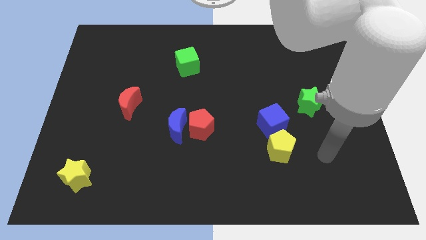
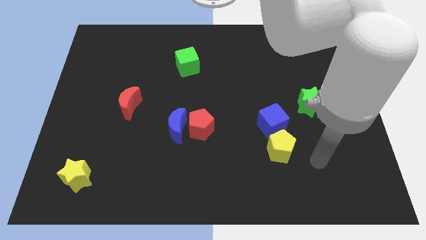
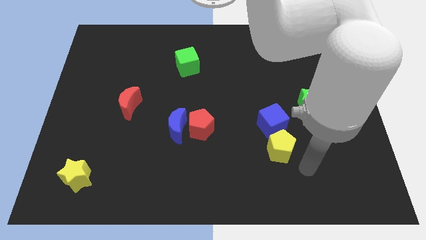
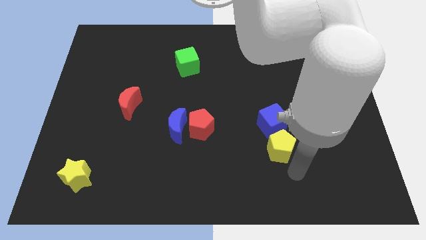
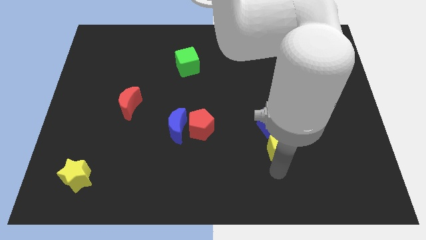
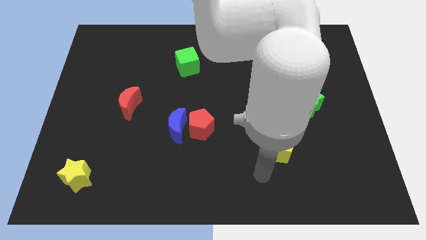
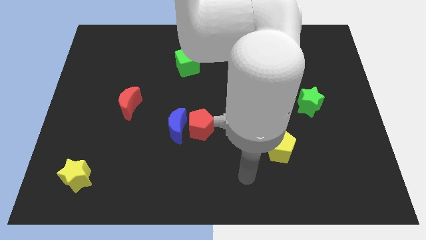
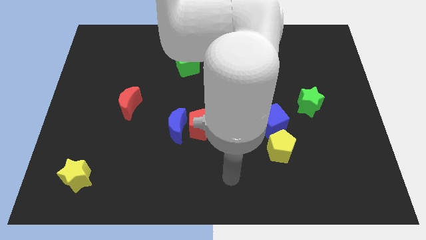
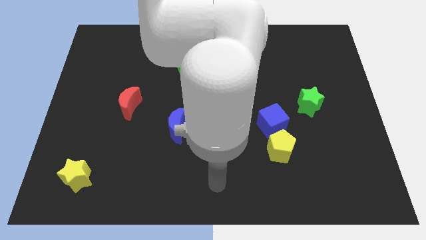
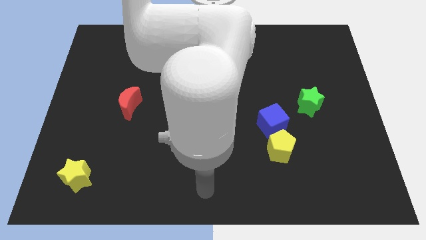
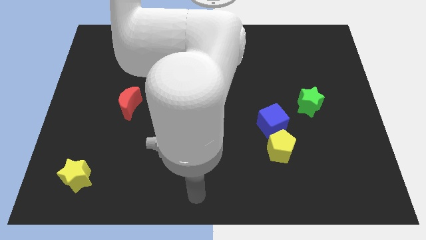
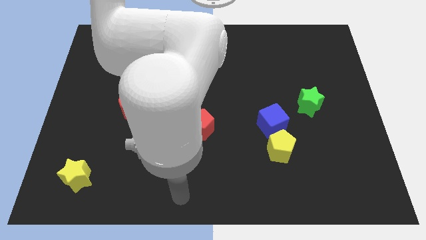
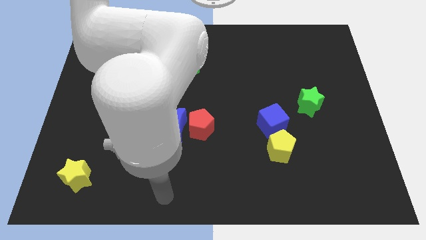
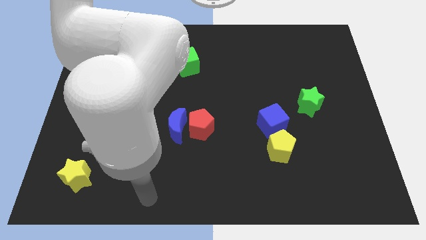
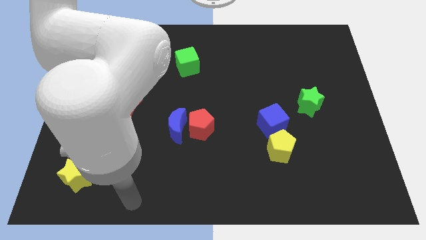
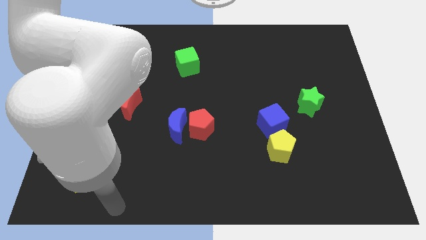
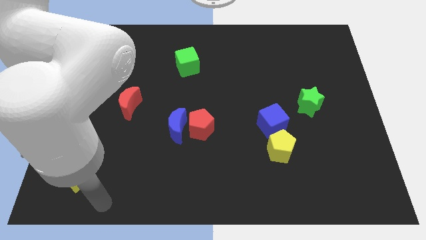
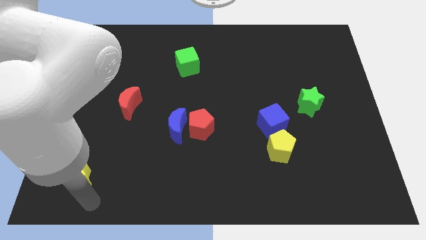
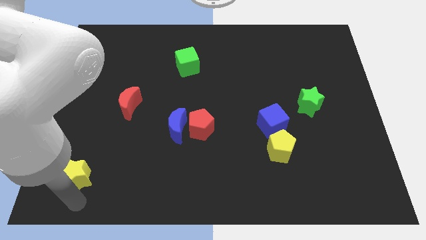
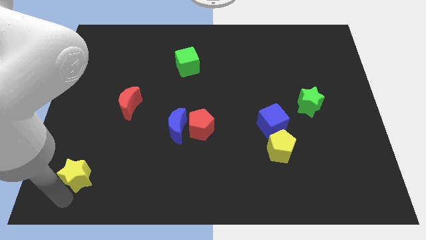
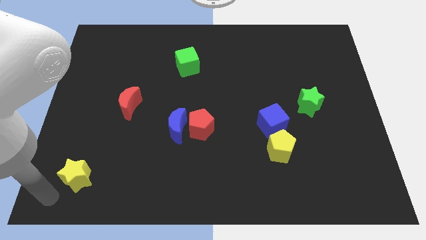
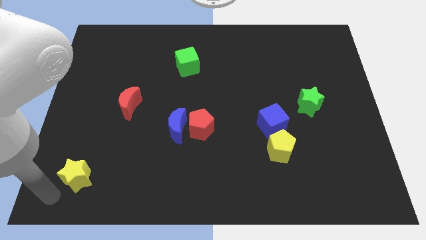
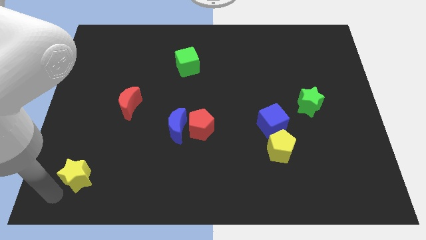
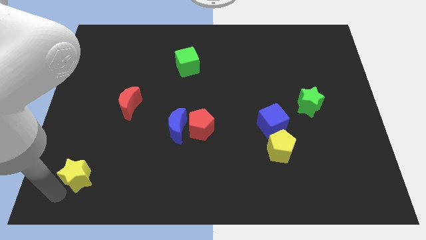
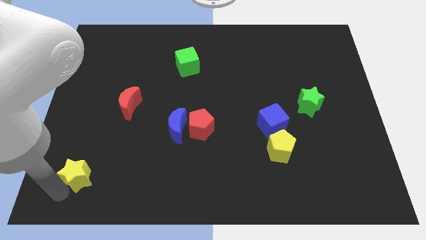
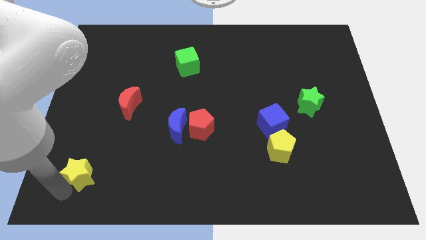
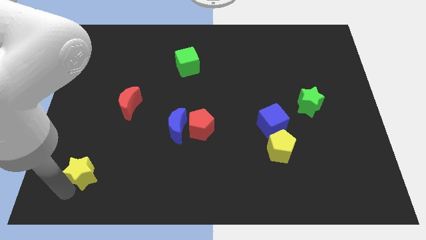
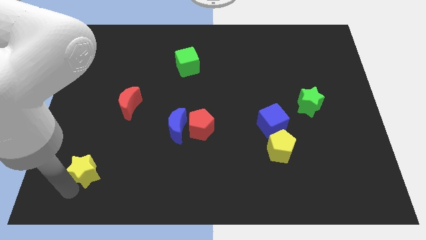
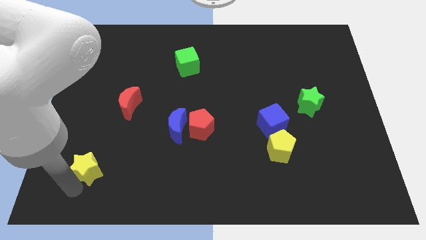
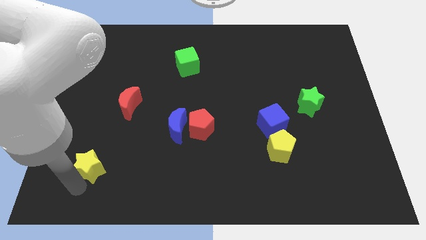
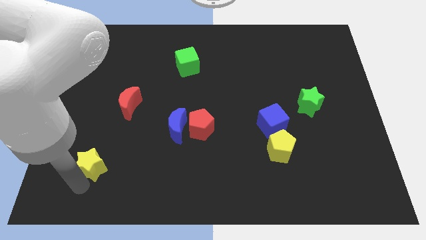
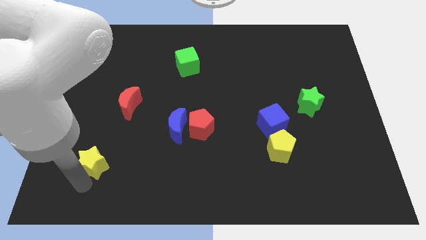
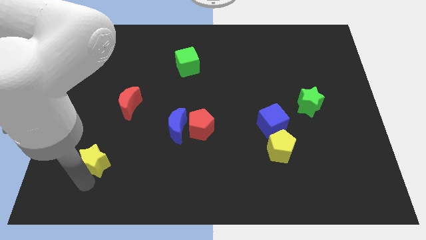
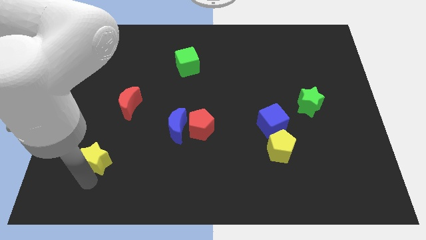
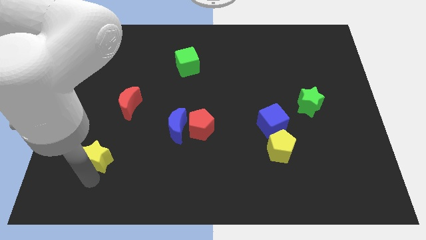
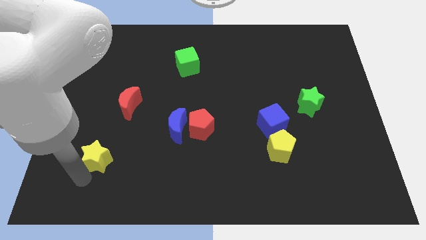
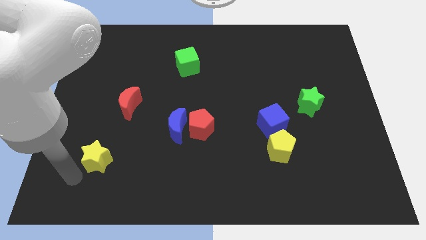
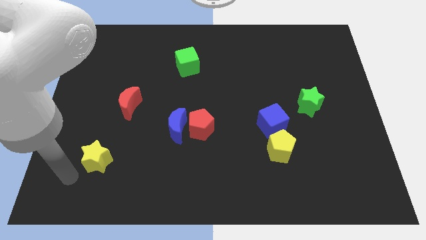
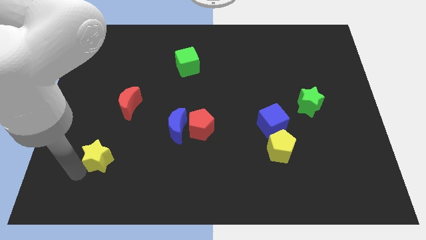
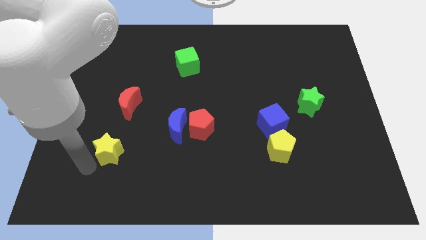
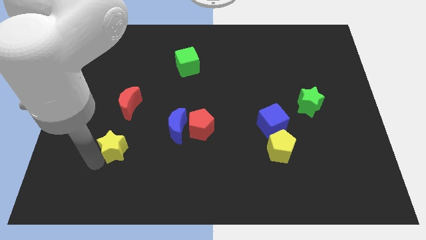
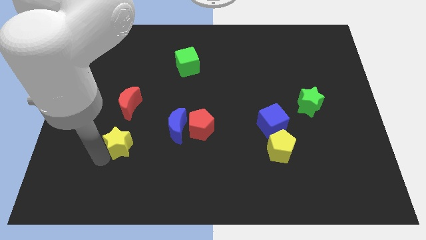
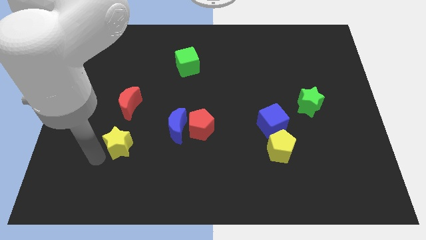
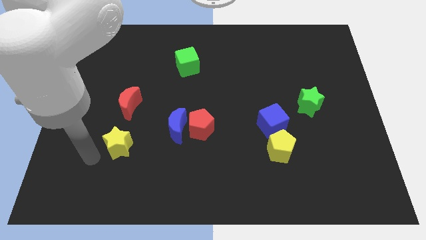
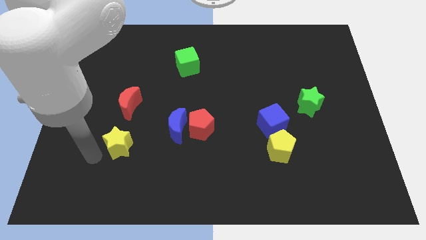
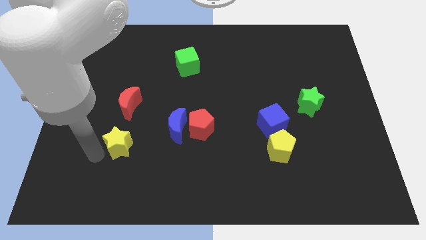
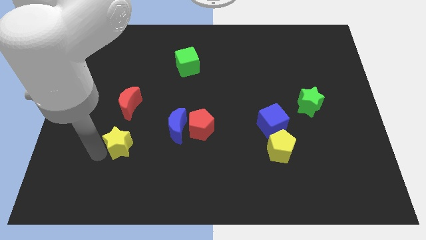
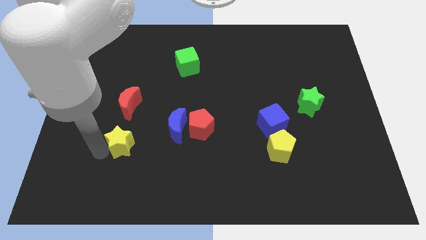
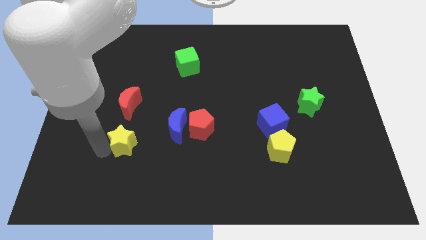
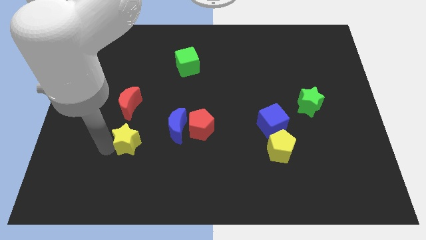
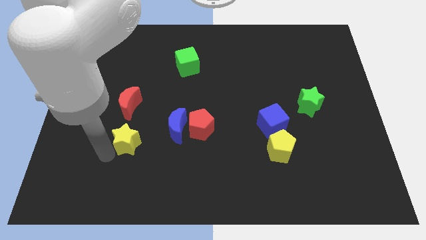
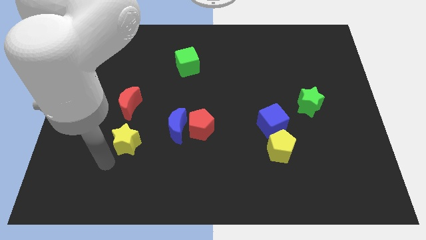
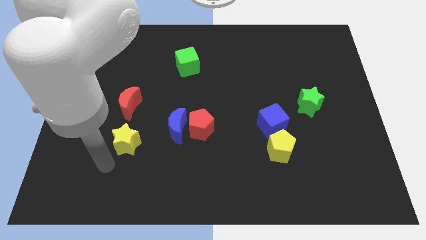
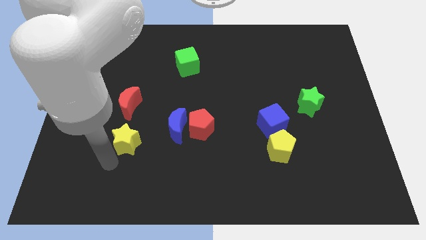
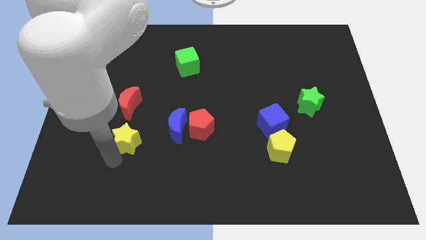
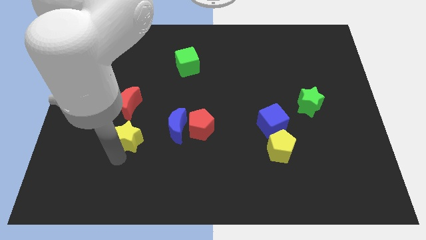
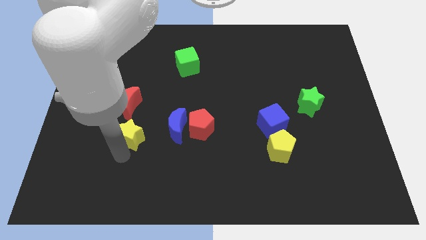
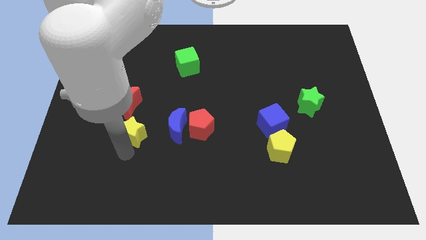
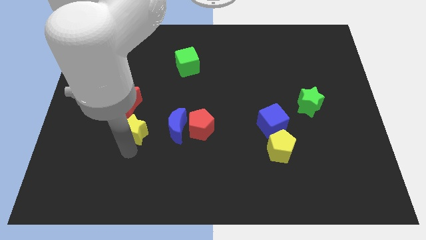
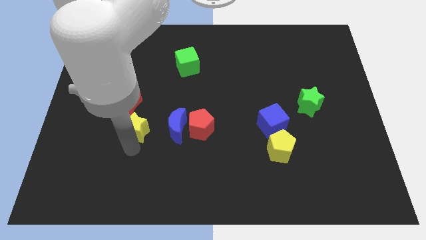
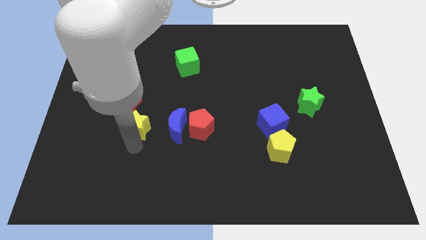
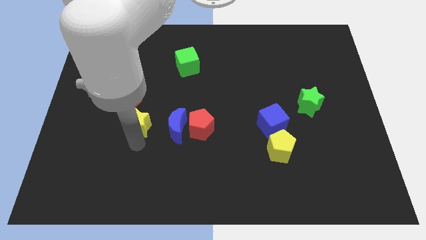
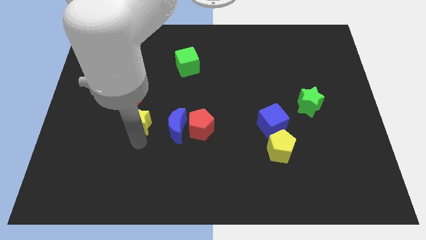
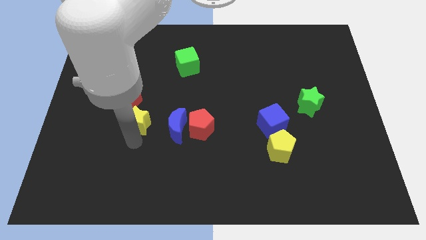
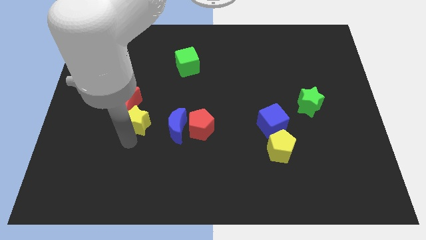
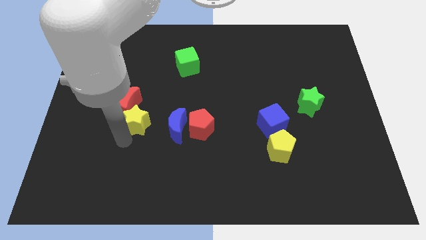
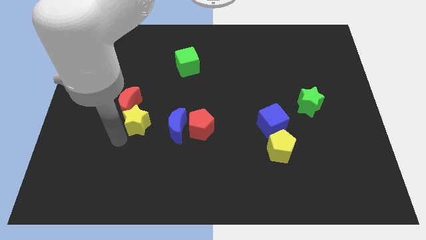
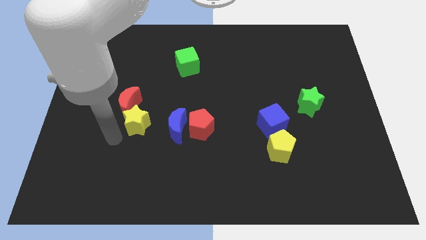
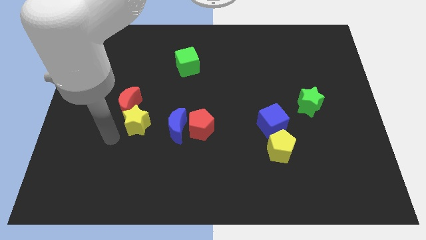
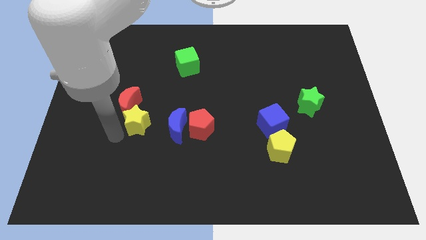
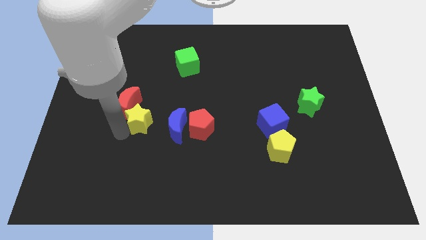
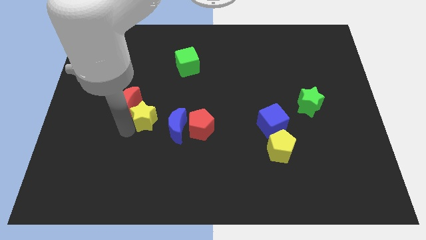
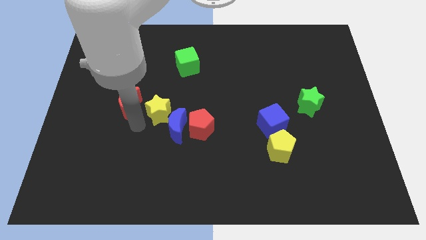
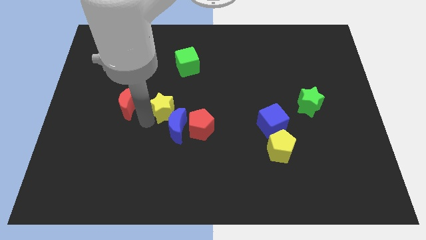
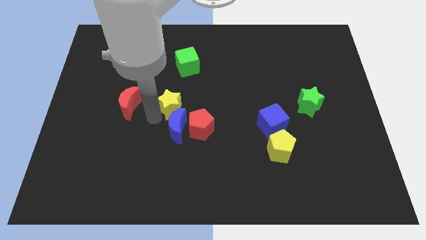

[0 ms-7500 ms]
slide the yellow star to the bottom of the green cube

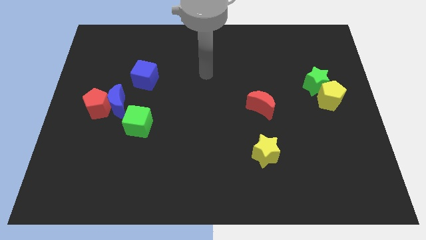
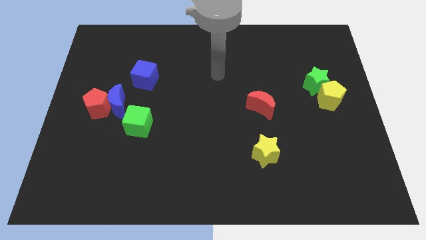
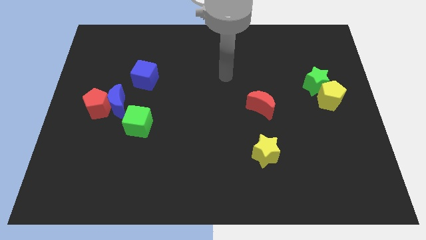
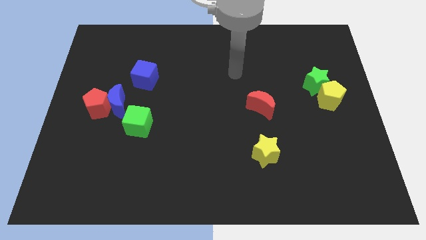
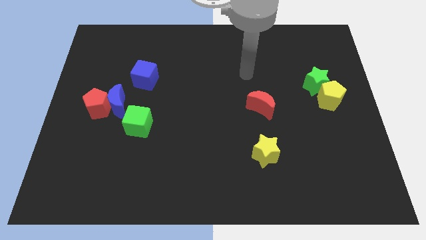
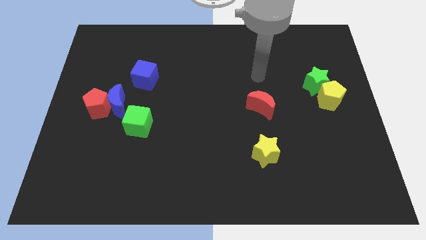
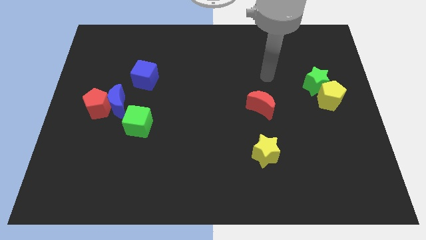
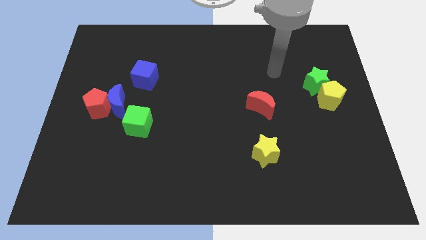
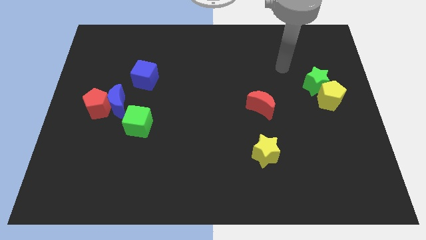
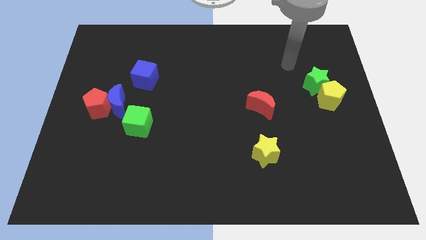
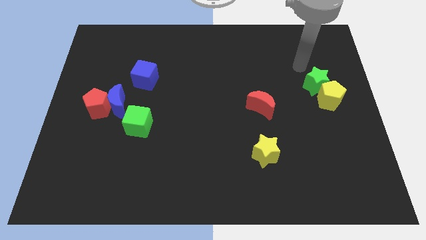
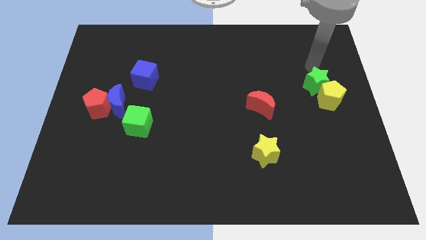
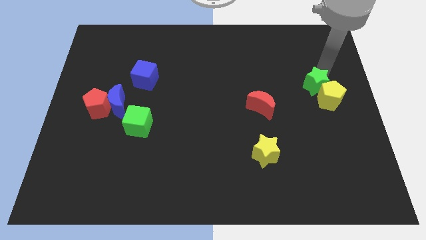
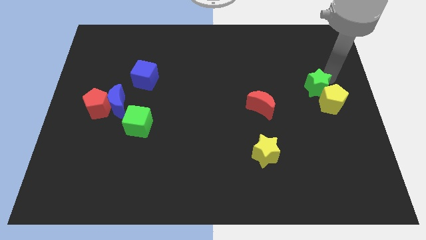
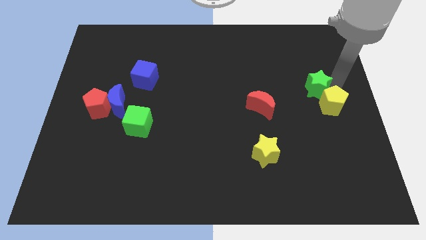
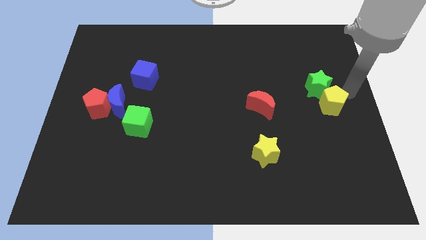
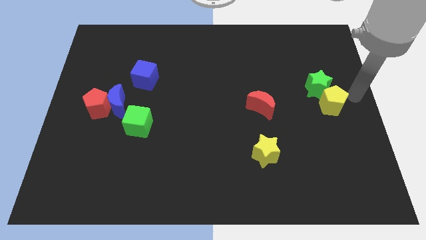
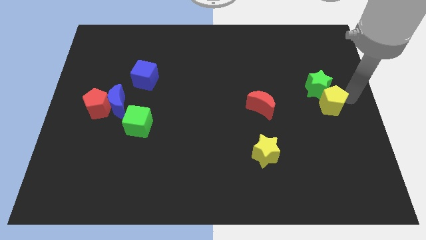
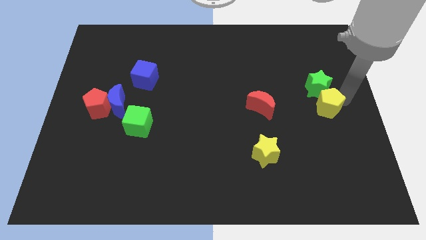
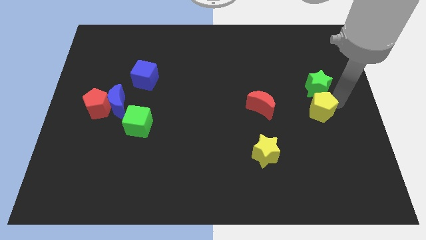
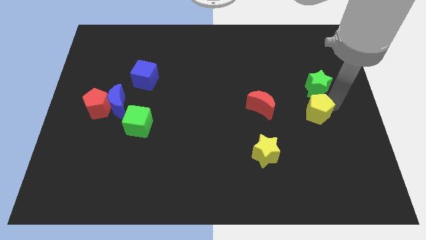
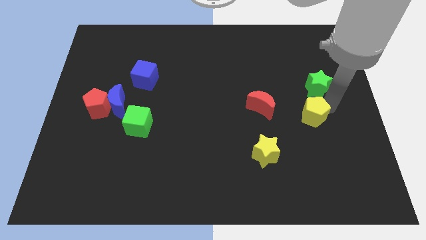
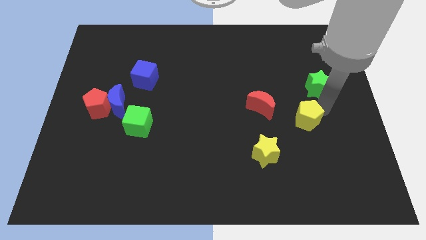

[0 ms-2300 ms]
move the yellow pentagon to the bottom right of the red moon
